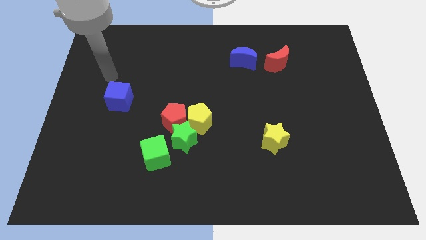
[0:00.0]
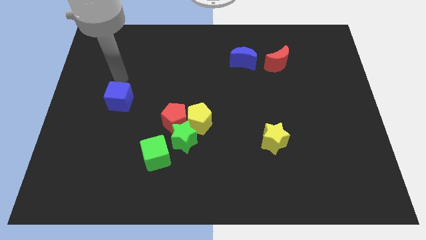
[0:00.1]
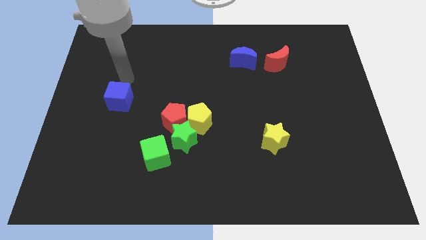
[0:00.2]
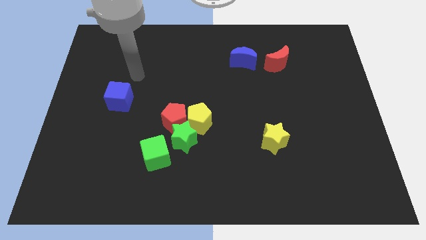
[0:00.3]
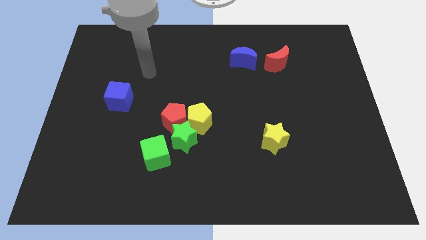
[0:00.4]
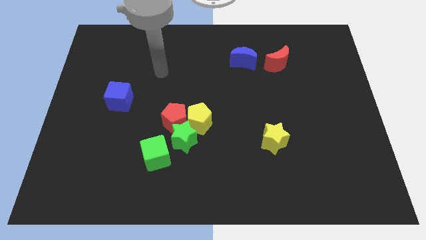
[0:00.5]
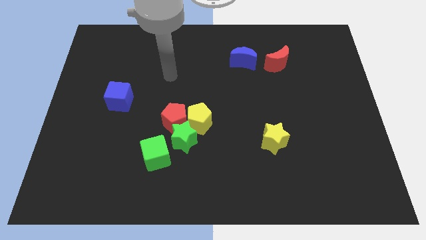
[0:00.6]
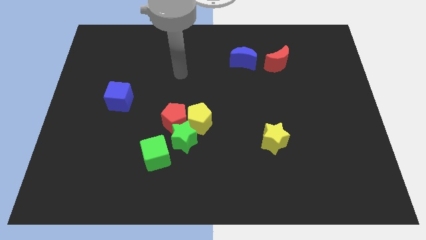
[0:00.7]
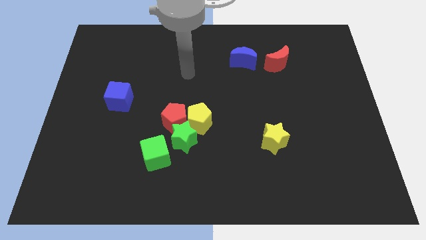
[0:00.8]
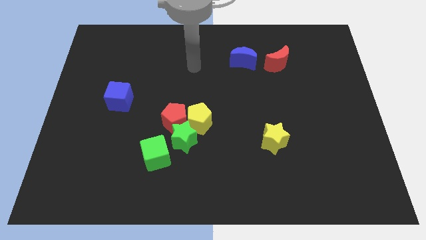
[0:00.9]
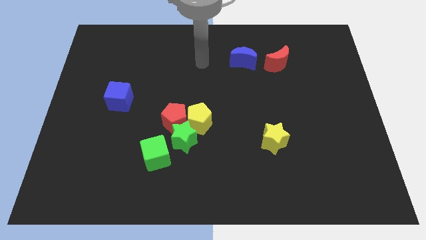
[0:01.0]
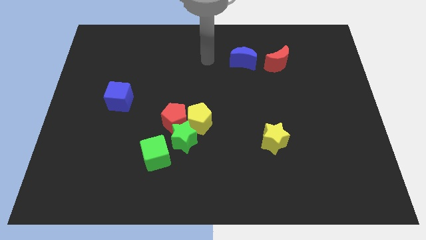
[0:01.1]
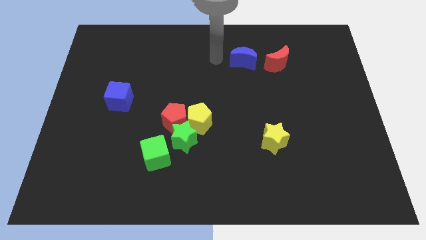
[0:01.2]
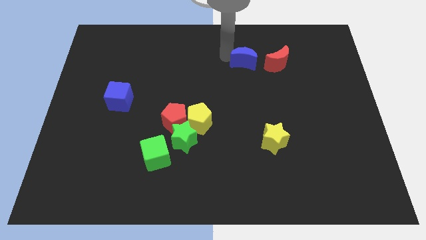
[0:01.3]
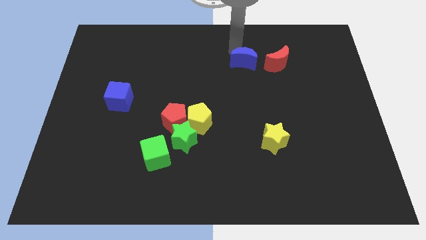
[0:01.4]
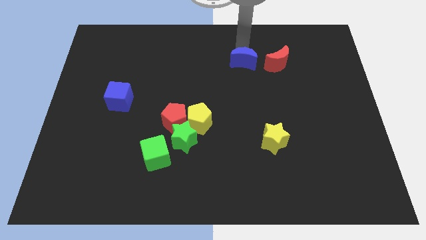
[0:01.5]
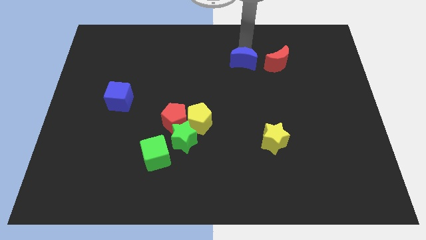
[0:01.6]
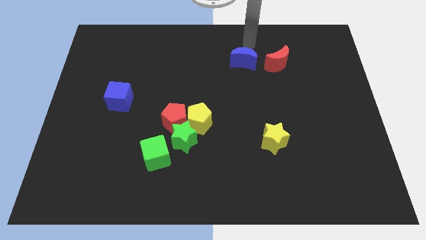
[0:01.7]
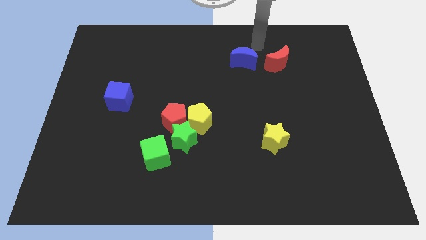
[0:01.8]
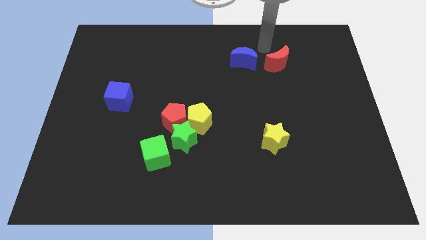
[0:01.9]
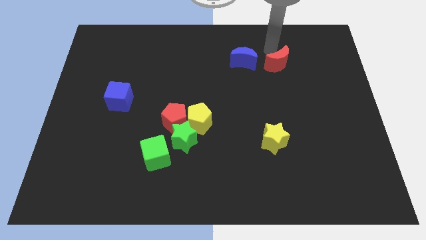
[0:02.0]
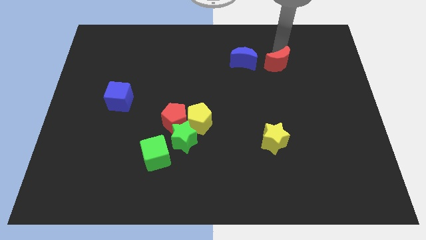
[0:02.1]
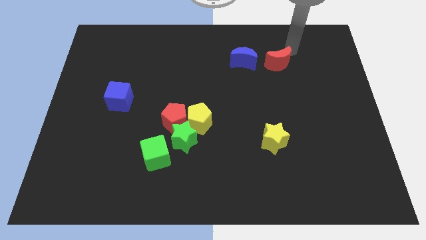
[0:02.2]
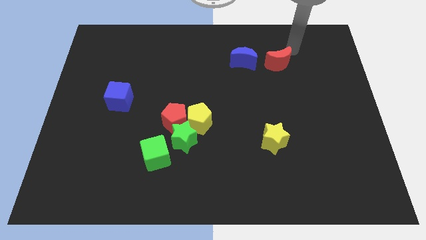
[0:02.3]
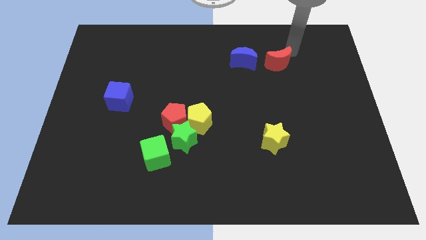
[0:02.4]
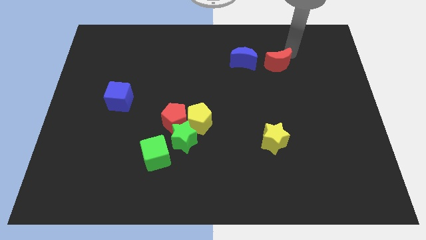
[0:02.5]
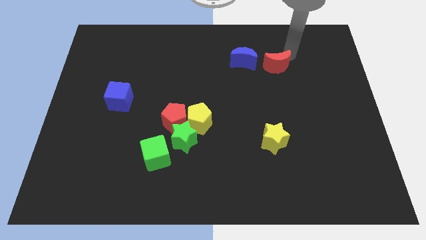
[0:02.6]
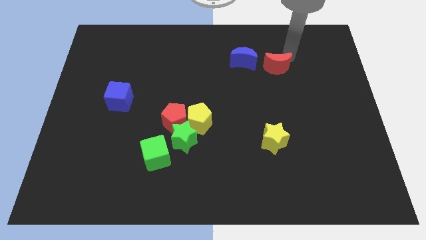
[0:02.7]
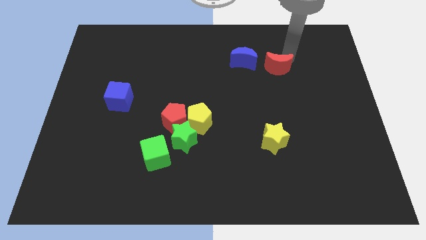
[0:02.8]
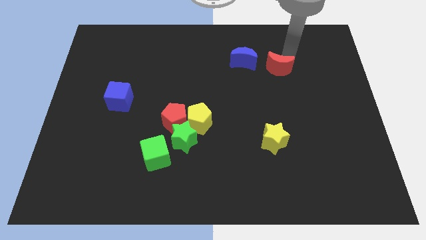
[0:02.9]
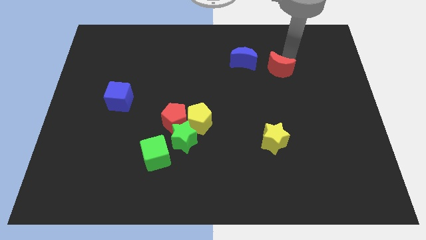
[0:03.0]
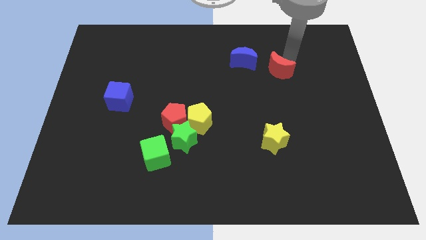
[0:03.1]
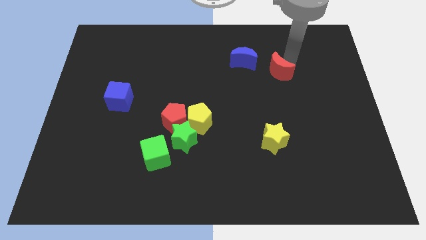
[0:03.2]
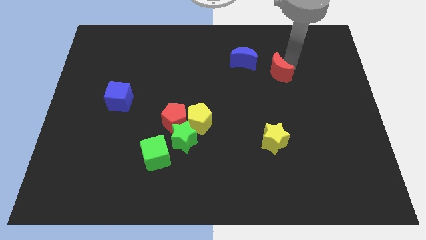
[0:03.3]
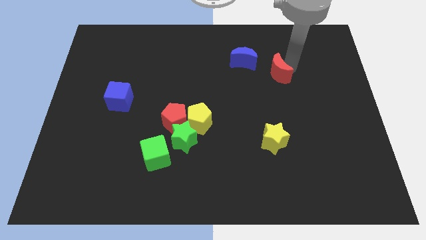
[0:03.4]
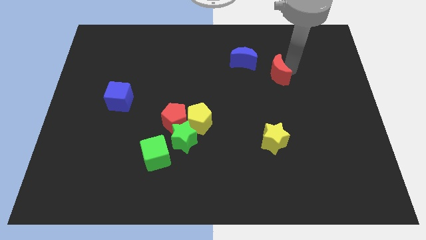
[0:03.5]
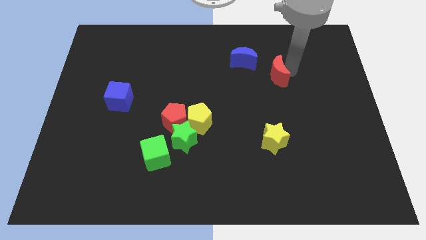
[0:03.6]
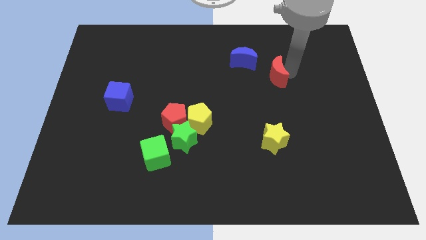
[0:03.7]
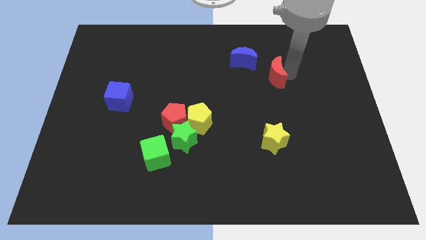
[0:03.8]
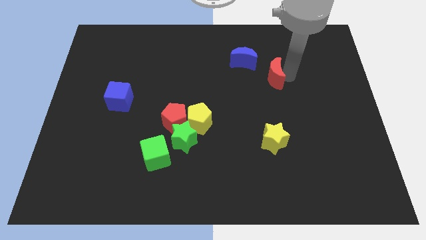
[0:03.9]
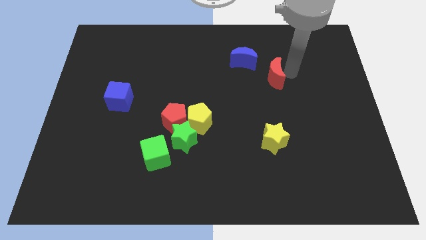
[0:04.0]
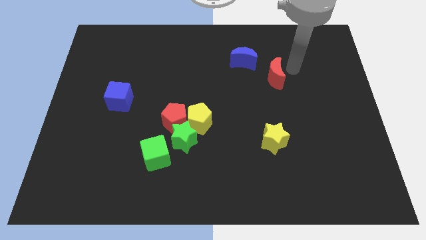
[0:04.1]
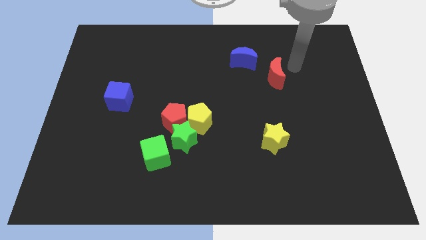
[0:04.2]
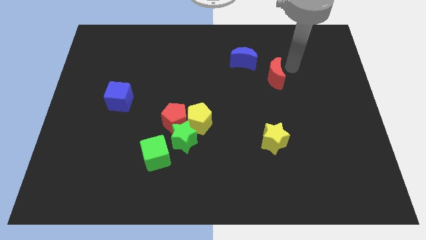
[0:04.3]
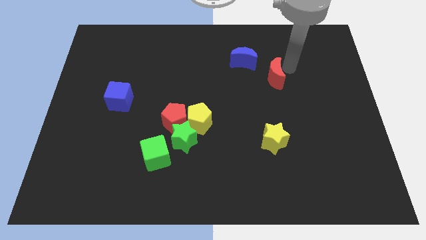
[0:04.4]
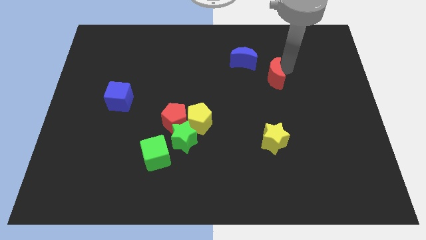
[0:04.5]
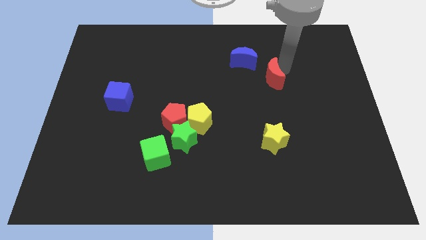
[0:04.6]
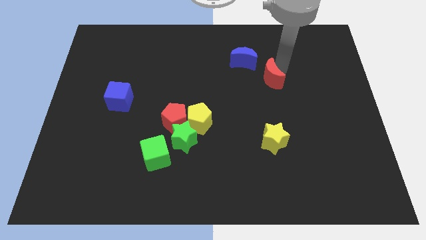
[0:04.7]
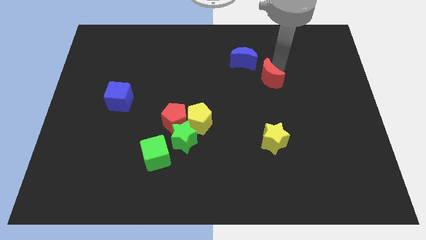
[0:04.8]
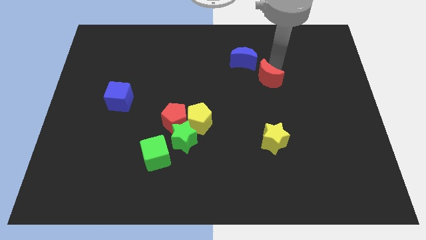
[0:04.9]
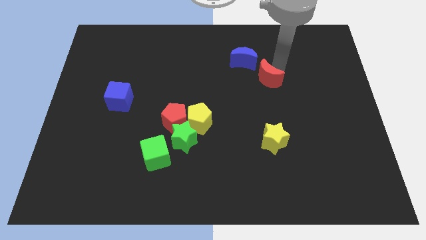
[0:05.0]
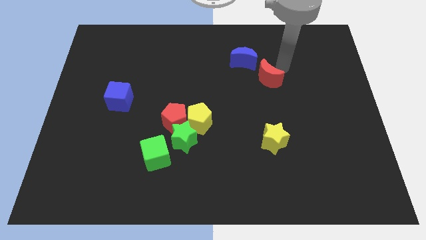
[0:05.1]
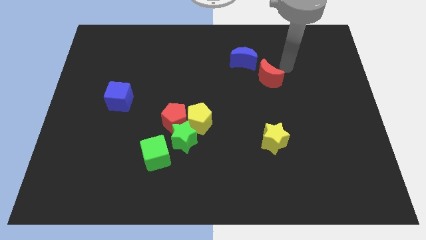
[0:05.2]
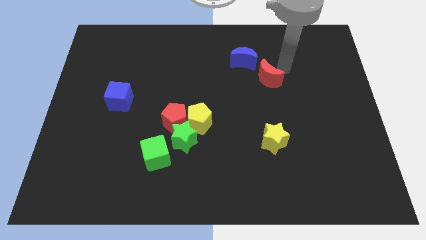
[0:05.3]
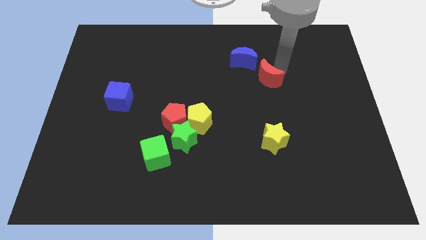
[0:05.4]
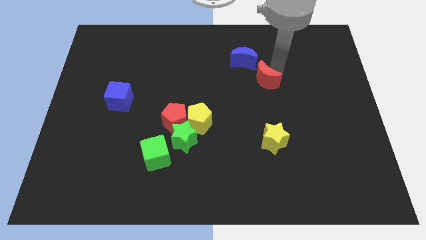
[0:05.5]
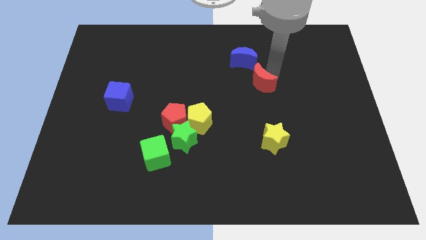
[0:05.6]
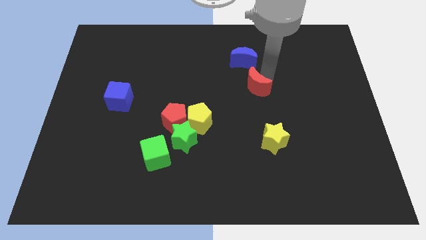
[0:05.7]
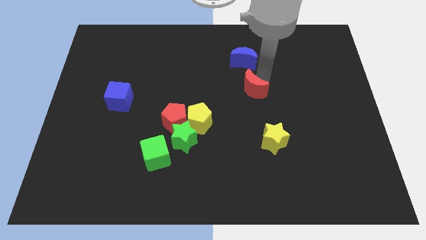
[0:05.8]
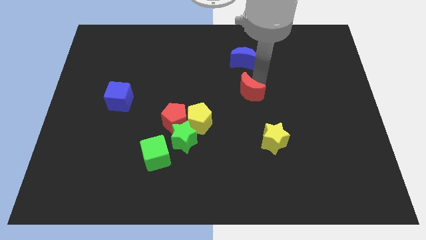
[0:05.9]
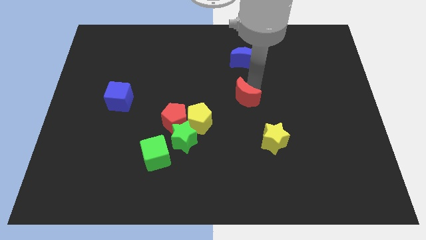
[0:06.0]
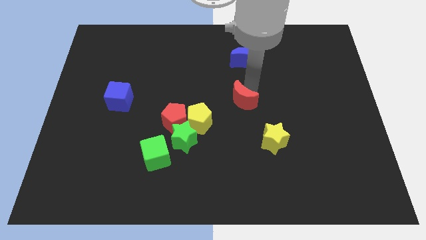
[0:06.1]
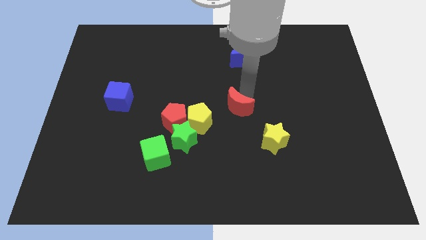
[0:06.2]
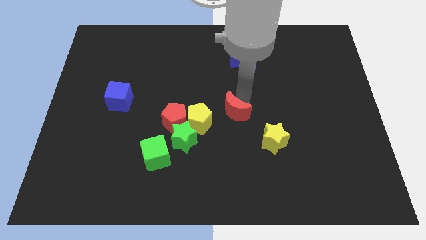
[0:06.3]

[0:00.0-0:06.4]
put the red moon right of the red pentagon
